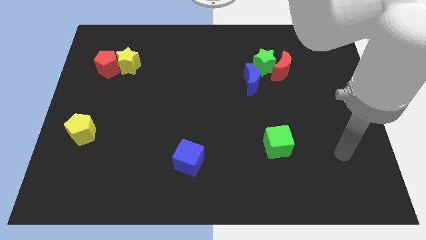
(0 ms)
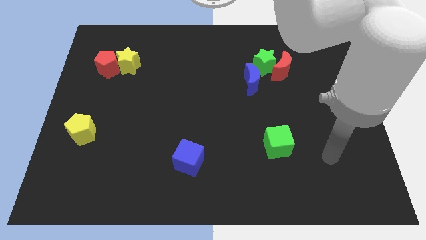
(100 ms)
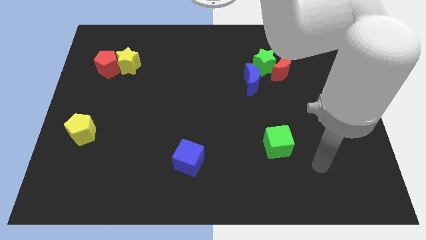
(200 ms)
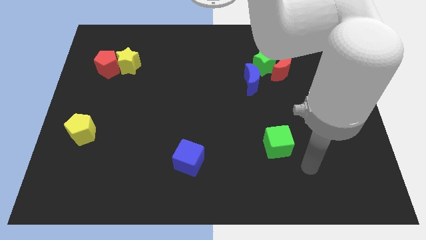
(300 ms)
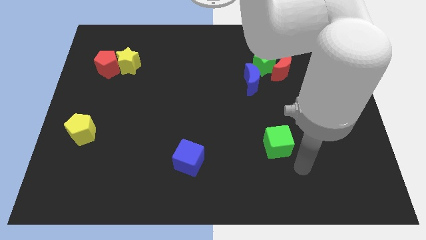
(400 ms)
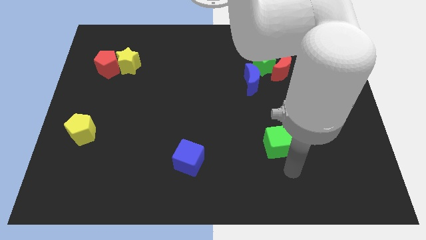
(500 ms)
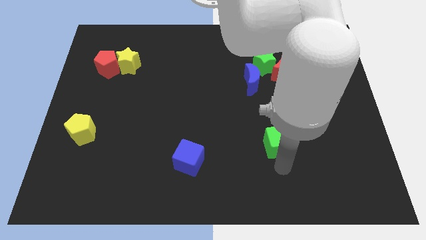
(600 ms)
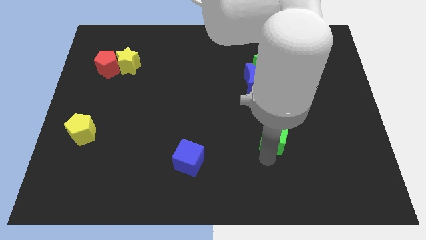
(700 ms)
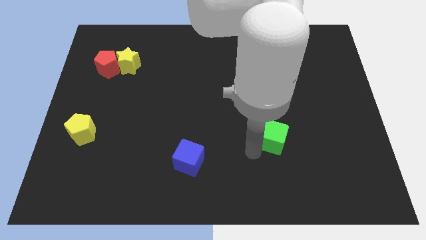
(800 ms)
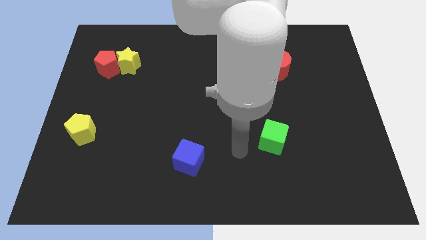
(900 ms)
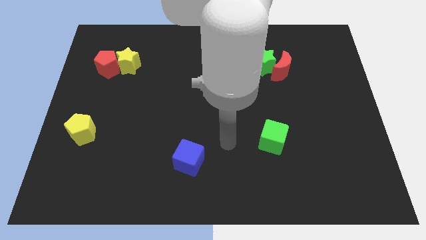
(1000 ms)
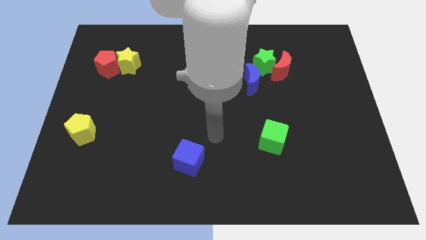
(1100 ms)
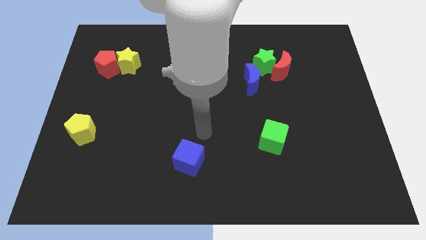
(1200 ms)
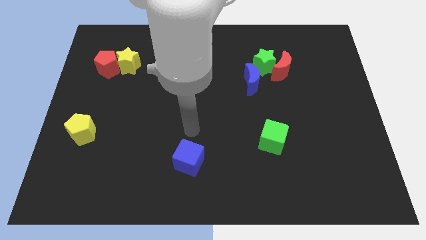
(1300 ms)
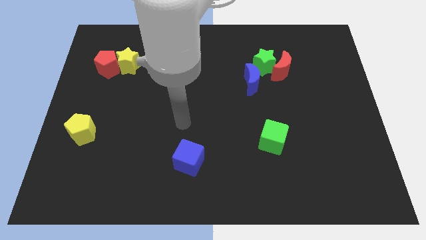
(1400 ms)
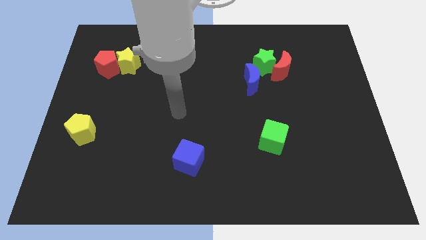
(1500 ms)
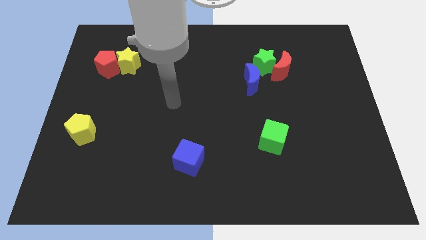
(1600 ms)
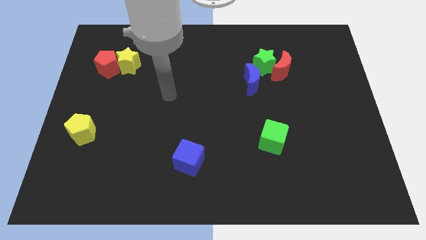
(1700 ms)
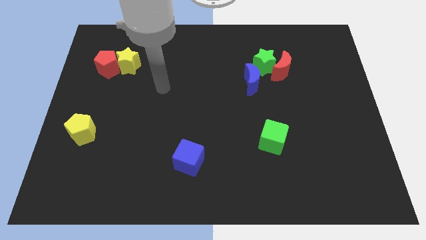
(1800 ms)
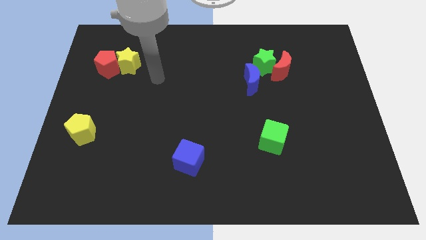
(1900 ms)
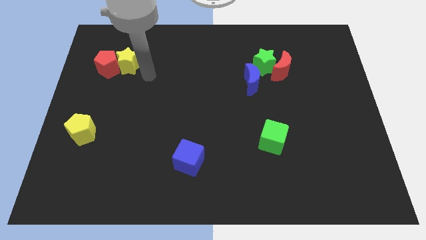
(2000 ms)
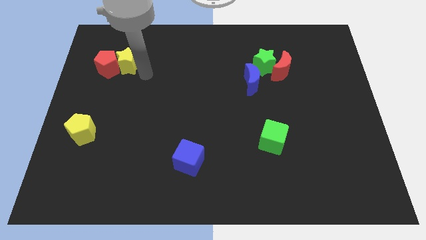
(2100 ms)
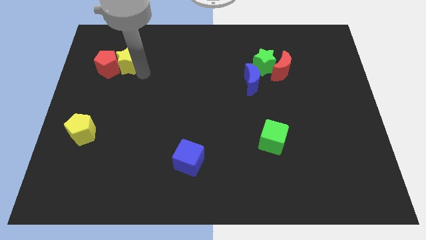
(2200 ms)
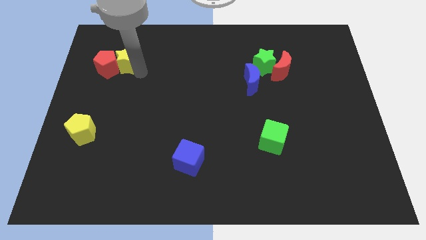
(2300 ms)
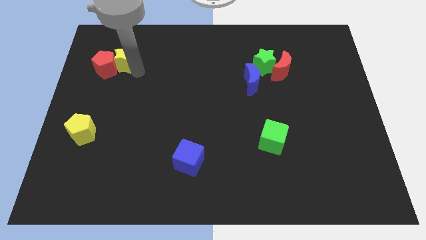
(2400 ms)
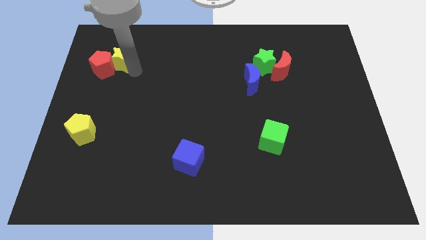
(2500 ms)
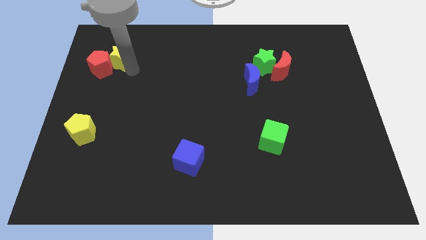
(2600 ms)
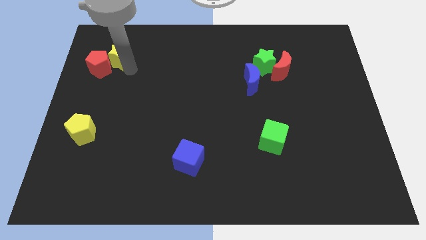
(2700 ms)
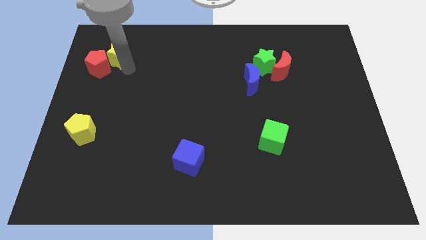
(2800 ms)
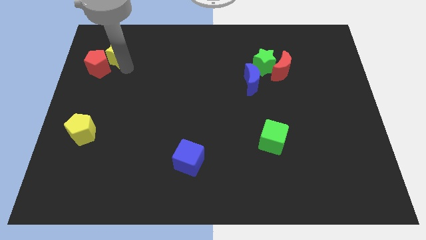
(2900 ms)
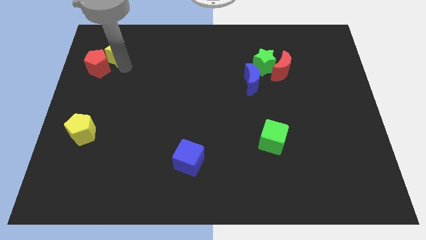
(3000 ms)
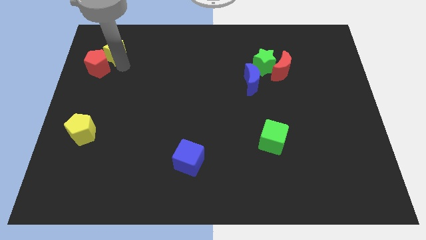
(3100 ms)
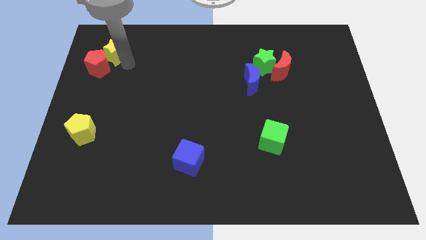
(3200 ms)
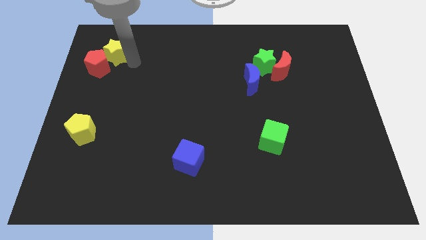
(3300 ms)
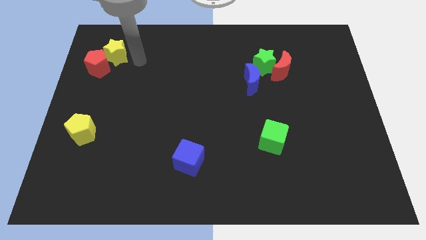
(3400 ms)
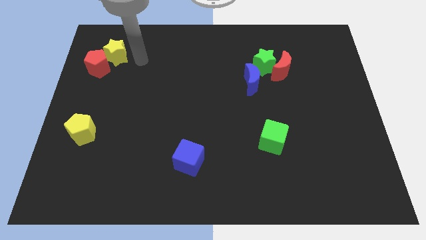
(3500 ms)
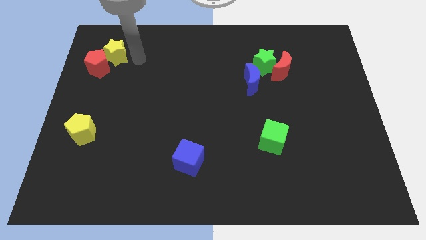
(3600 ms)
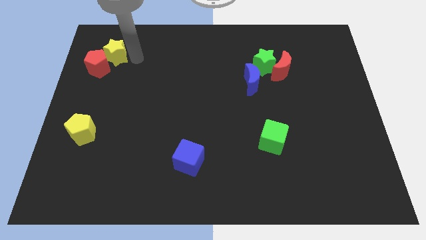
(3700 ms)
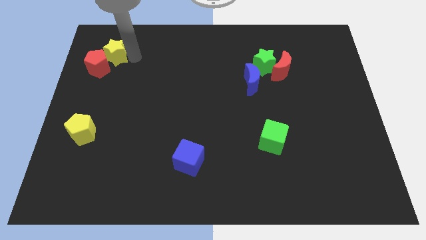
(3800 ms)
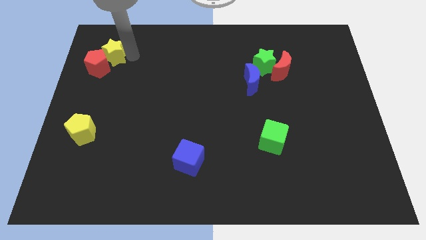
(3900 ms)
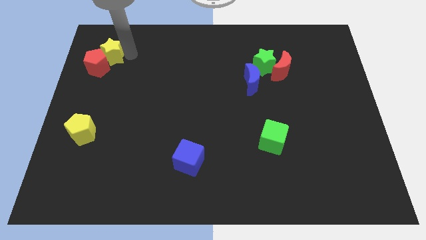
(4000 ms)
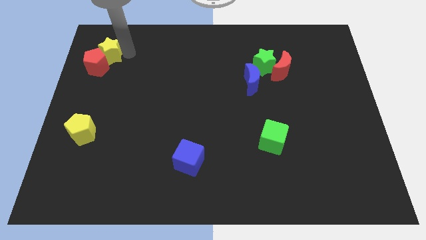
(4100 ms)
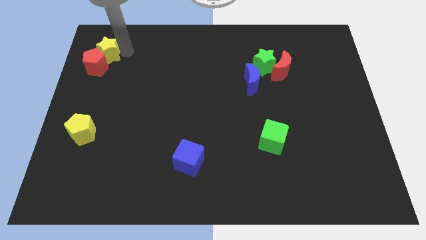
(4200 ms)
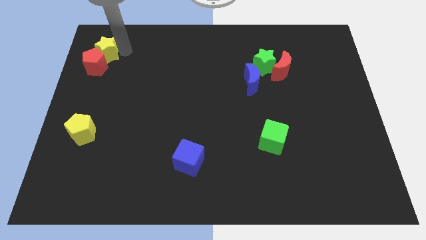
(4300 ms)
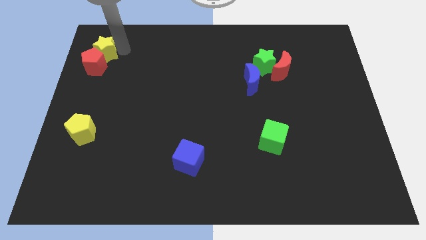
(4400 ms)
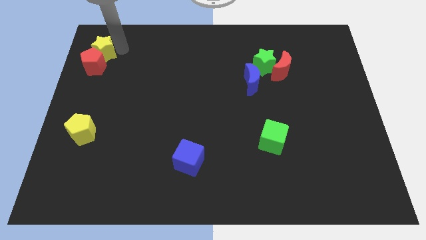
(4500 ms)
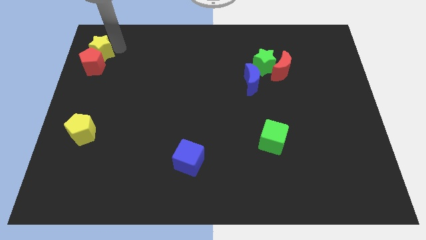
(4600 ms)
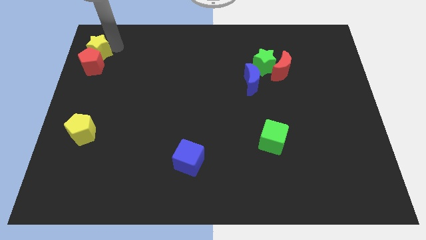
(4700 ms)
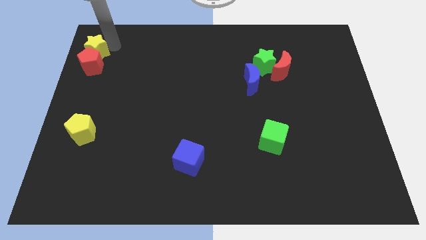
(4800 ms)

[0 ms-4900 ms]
push the yellow star to the top left corner

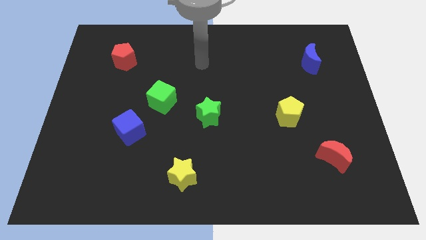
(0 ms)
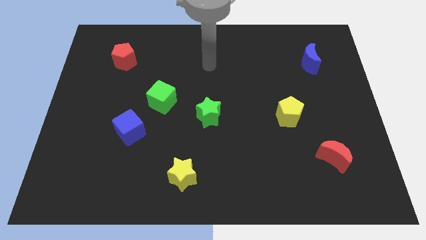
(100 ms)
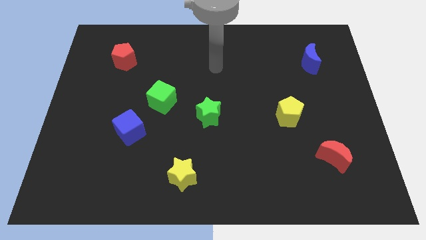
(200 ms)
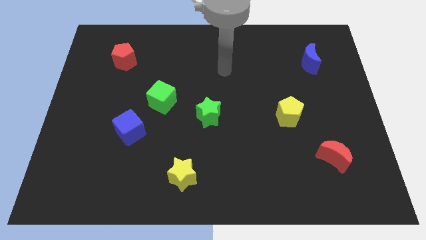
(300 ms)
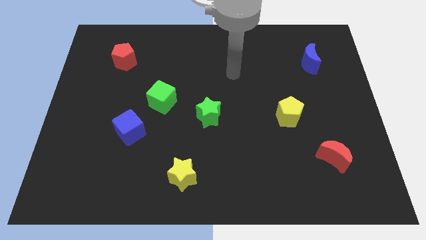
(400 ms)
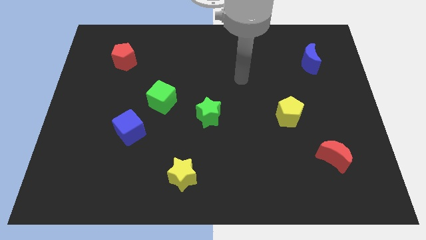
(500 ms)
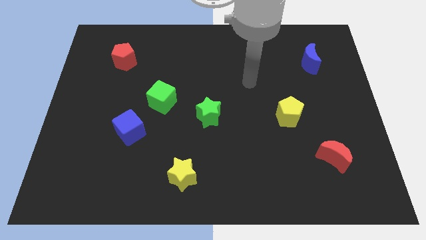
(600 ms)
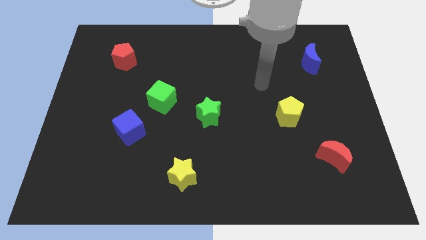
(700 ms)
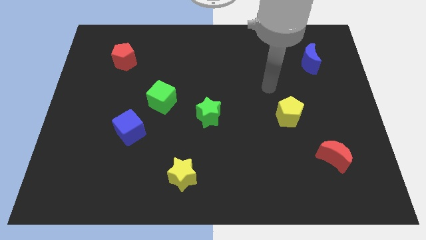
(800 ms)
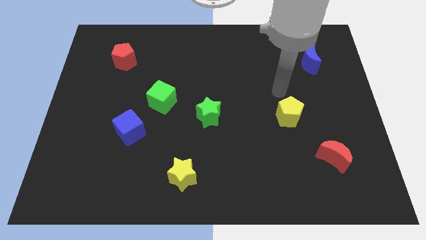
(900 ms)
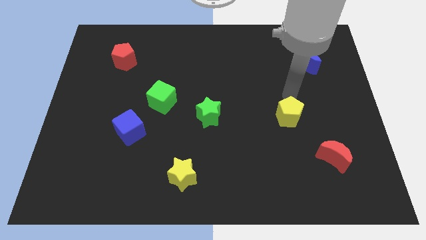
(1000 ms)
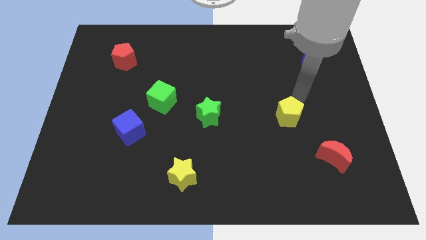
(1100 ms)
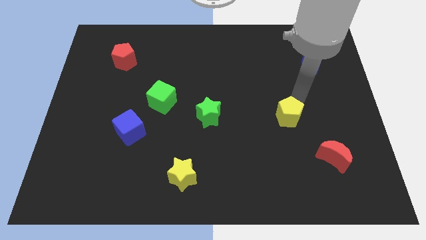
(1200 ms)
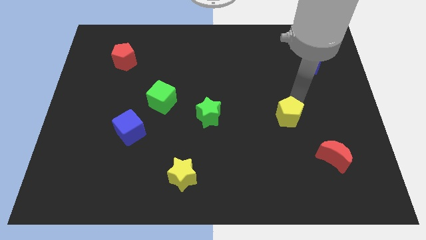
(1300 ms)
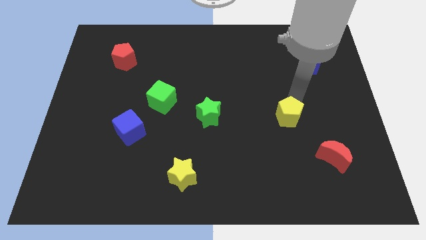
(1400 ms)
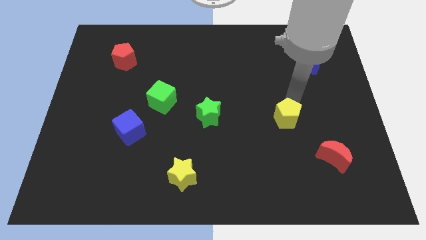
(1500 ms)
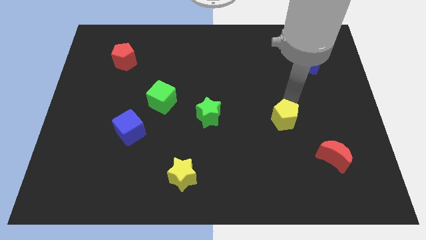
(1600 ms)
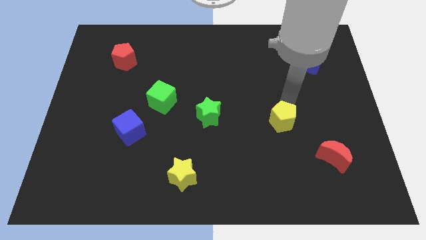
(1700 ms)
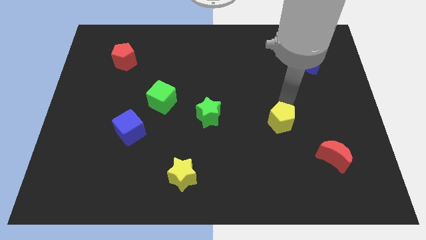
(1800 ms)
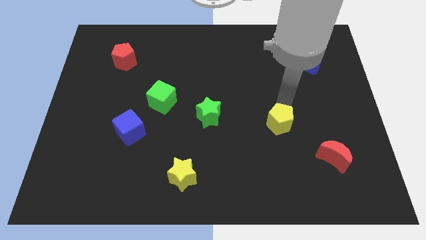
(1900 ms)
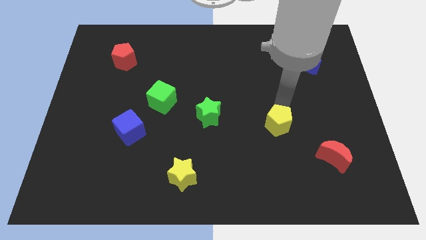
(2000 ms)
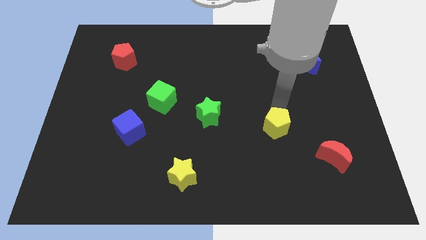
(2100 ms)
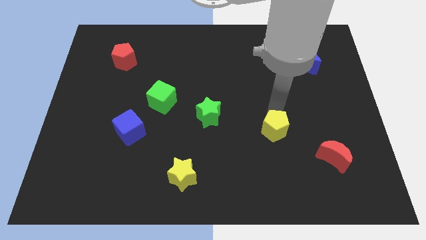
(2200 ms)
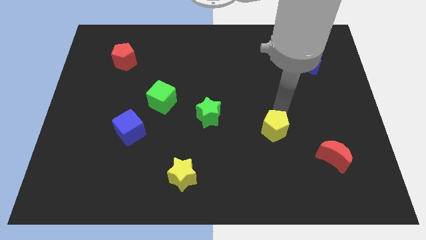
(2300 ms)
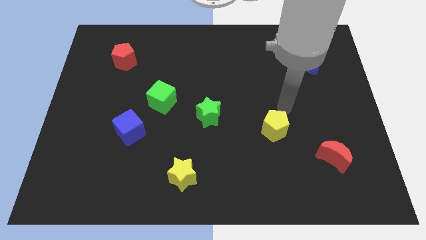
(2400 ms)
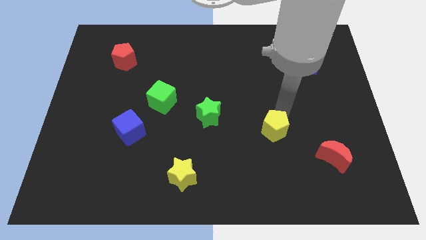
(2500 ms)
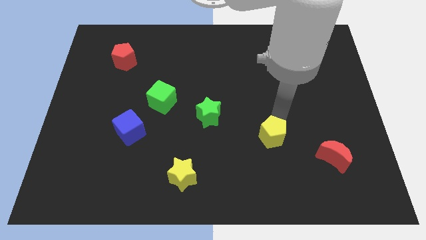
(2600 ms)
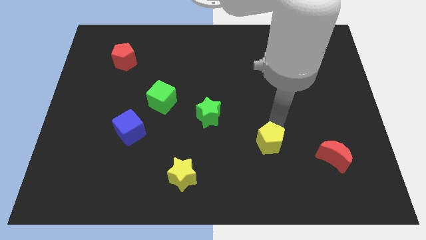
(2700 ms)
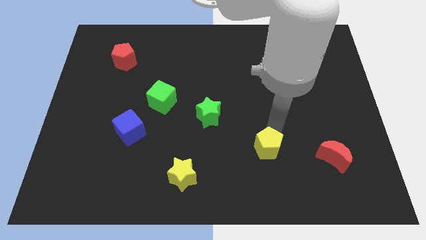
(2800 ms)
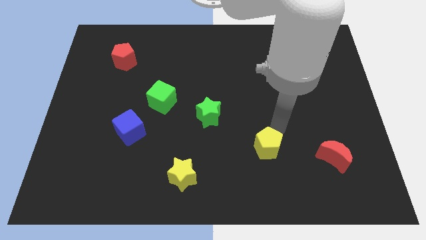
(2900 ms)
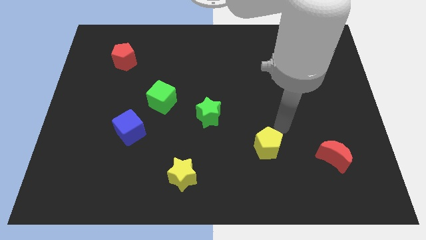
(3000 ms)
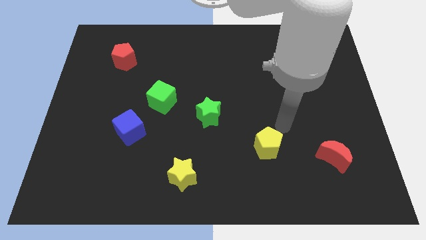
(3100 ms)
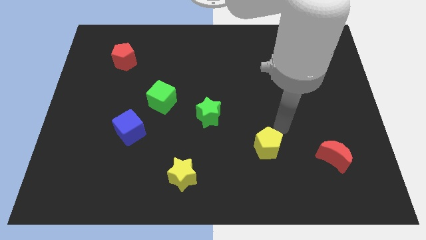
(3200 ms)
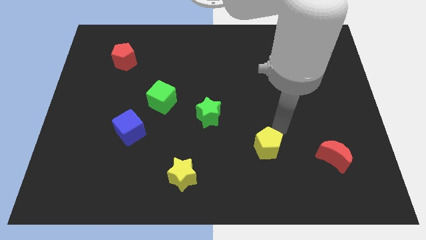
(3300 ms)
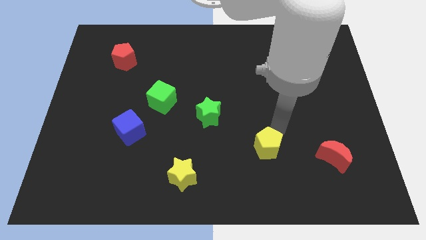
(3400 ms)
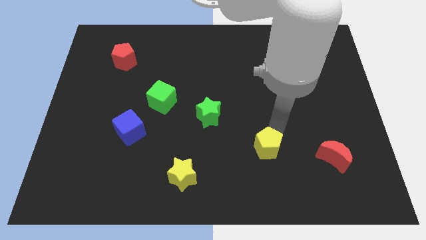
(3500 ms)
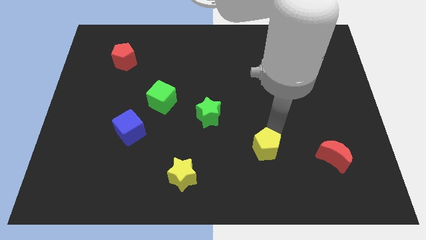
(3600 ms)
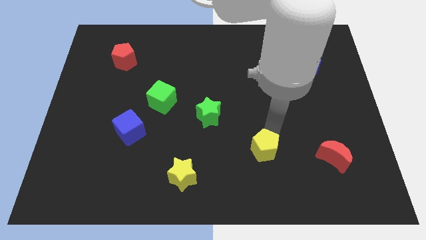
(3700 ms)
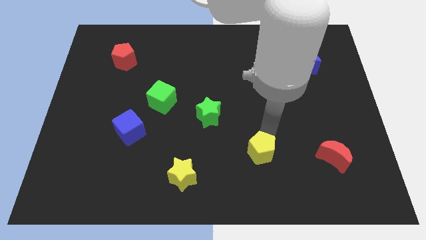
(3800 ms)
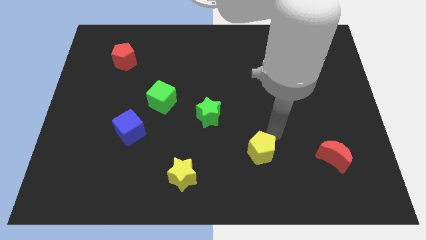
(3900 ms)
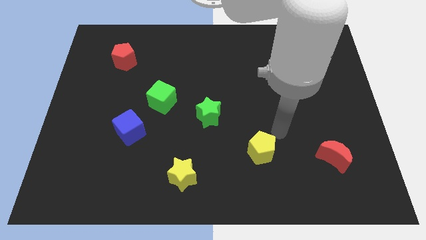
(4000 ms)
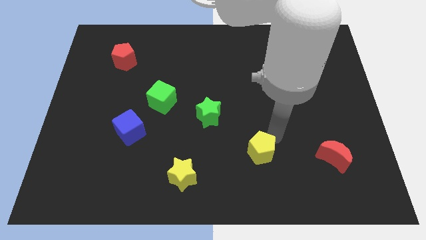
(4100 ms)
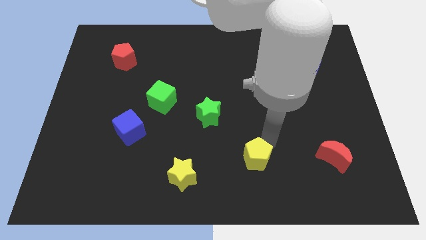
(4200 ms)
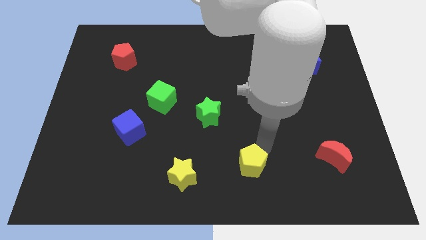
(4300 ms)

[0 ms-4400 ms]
move the yellow pentagon to the bottom
